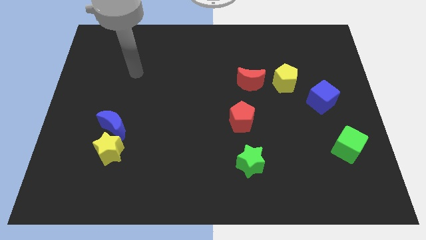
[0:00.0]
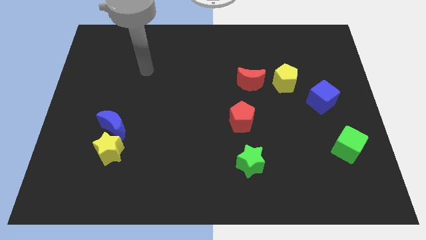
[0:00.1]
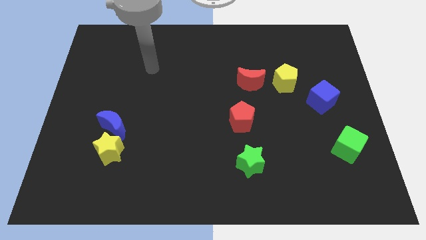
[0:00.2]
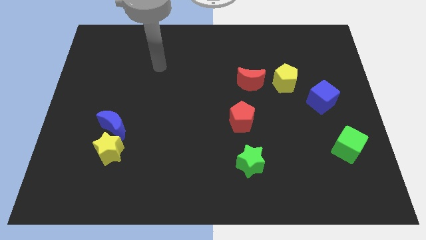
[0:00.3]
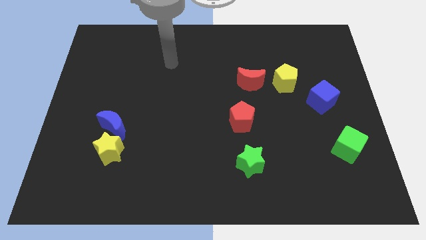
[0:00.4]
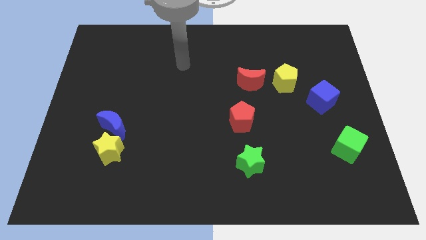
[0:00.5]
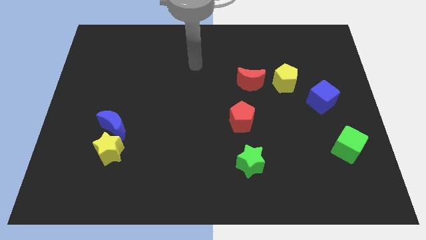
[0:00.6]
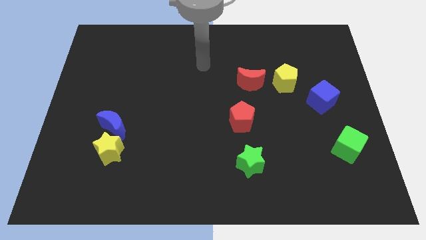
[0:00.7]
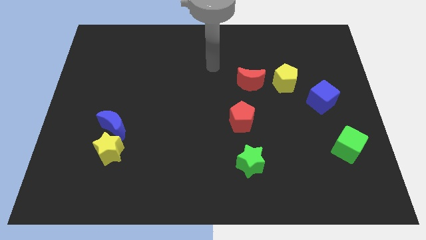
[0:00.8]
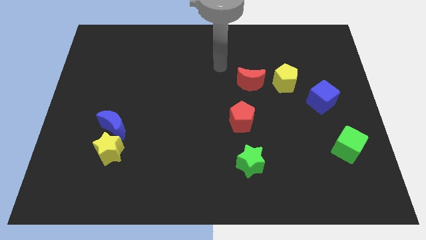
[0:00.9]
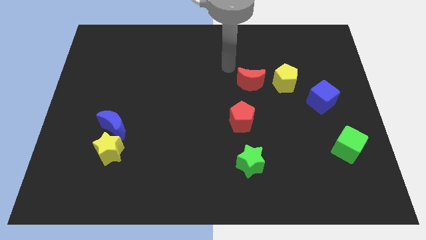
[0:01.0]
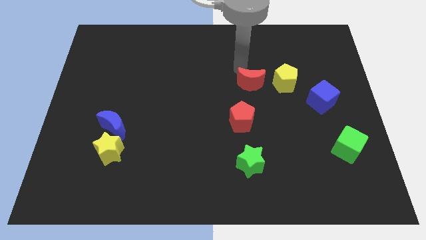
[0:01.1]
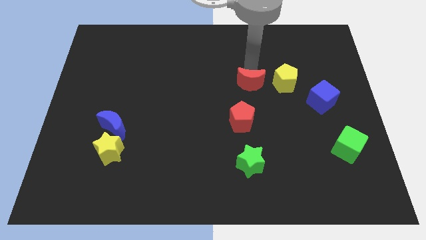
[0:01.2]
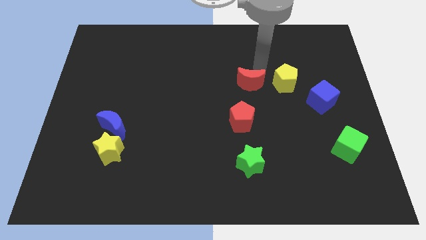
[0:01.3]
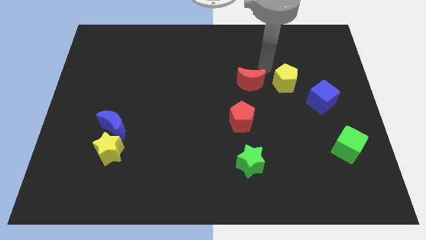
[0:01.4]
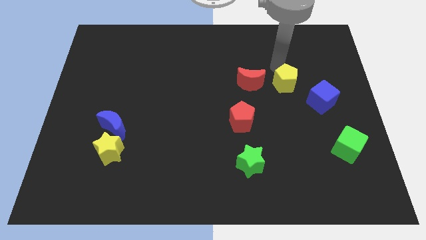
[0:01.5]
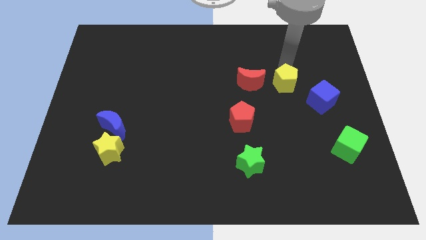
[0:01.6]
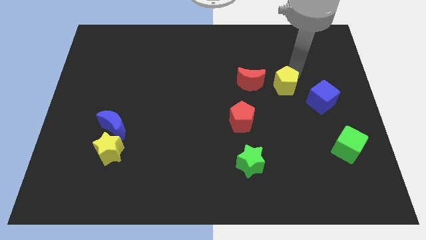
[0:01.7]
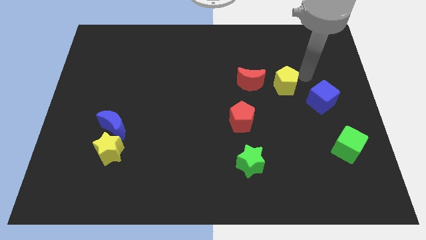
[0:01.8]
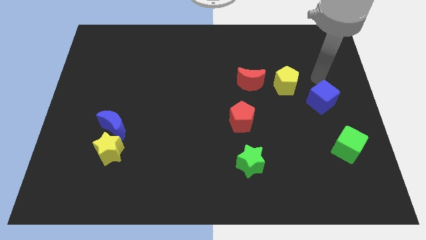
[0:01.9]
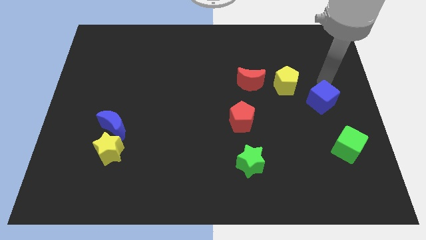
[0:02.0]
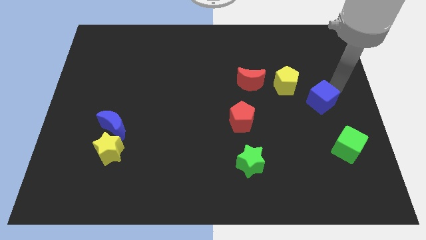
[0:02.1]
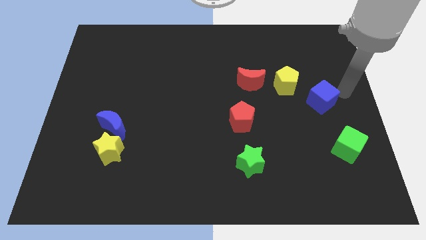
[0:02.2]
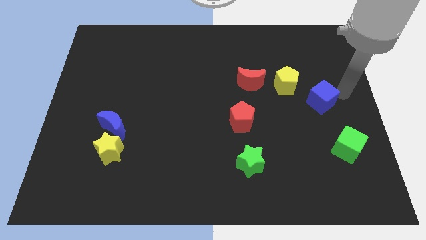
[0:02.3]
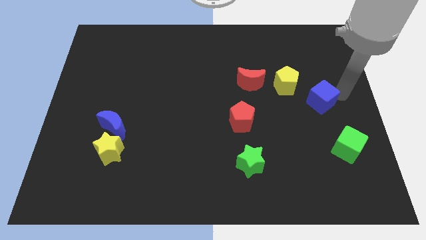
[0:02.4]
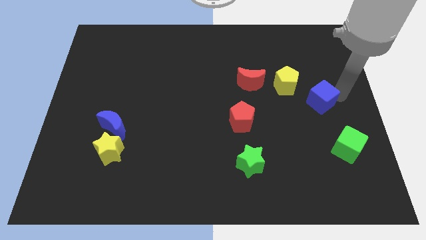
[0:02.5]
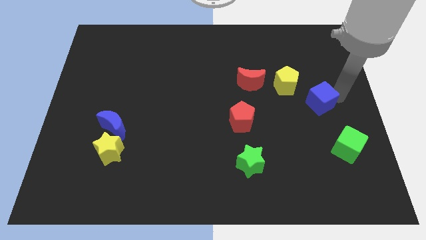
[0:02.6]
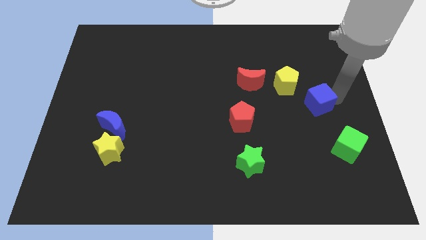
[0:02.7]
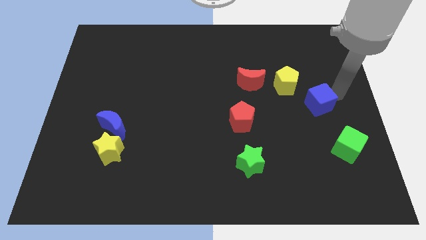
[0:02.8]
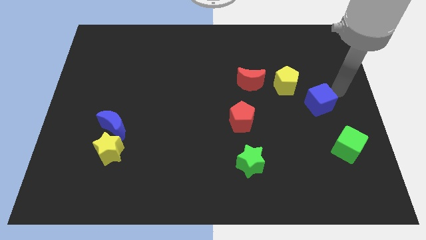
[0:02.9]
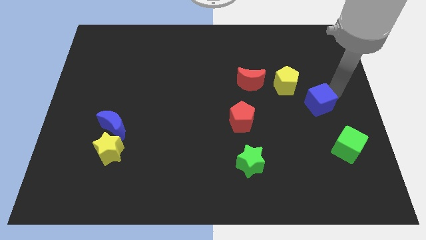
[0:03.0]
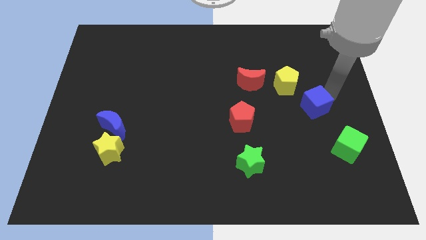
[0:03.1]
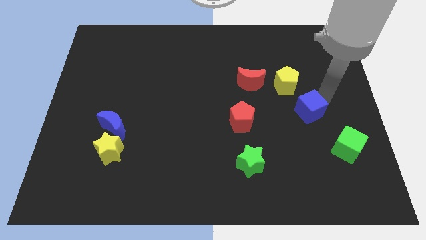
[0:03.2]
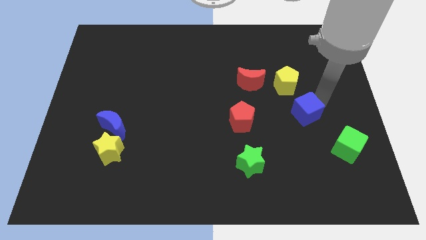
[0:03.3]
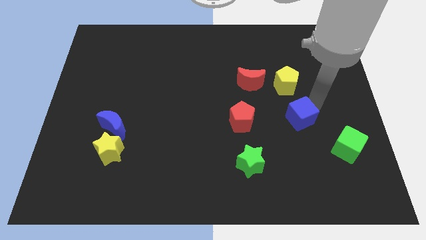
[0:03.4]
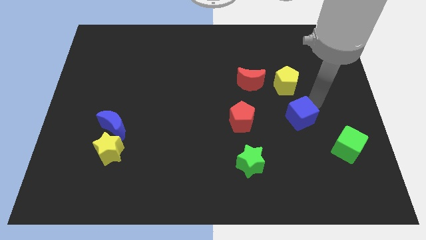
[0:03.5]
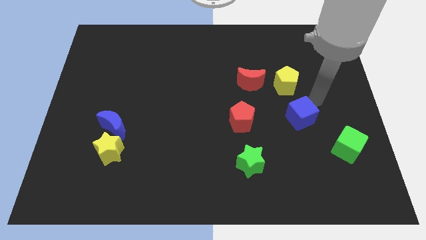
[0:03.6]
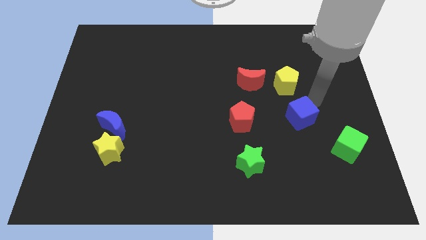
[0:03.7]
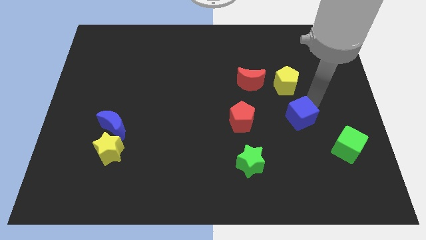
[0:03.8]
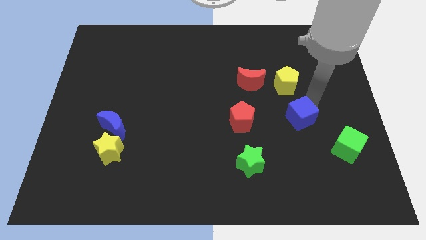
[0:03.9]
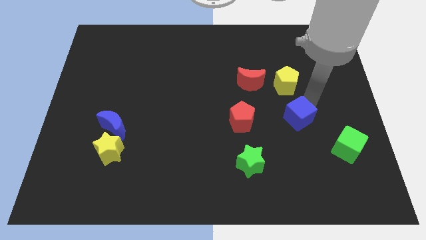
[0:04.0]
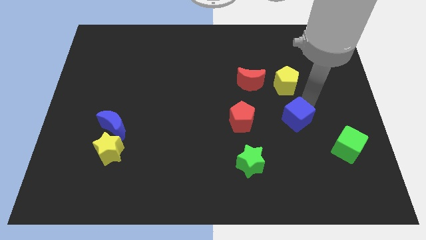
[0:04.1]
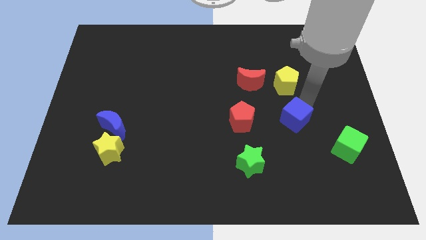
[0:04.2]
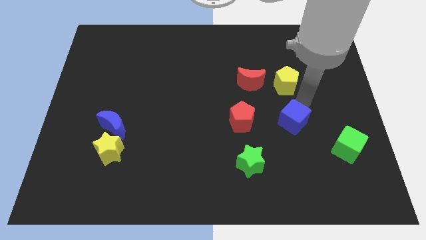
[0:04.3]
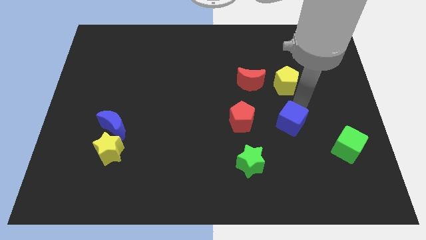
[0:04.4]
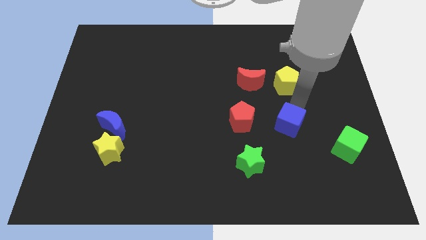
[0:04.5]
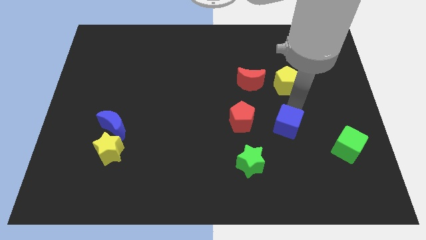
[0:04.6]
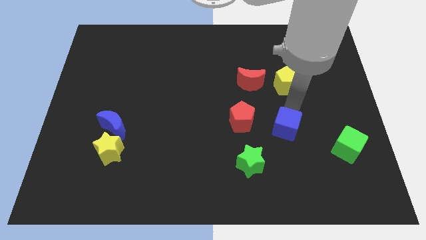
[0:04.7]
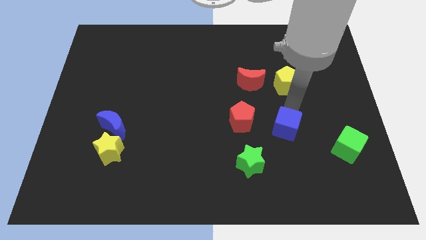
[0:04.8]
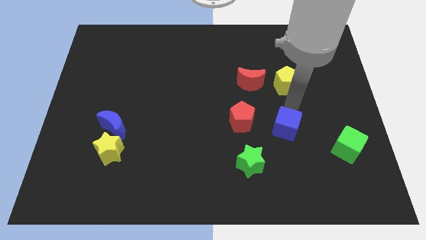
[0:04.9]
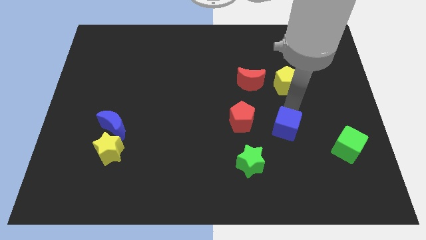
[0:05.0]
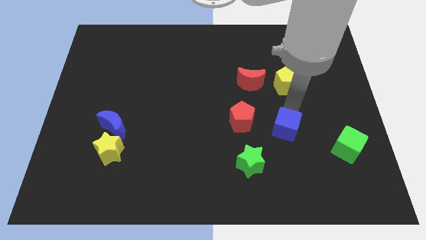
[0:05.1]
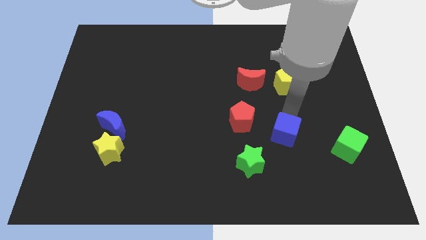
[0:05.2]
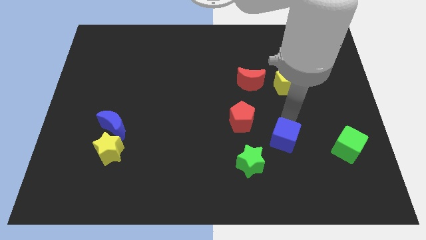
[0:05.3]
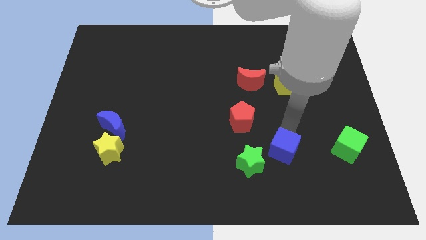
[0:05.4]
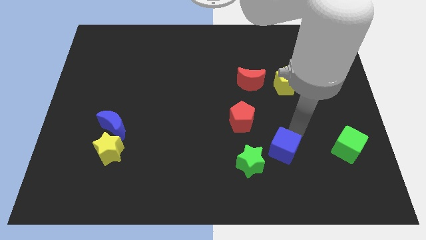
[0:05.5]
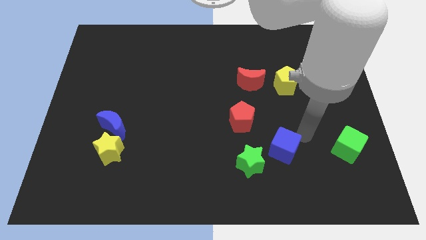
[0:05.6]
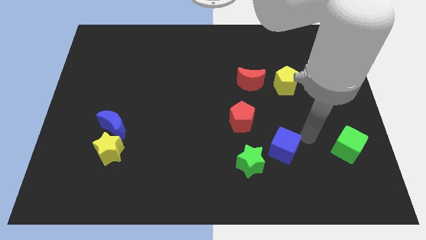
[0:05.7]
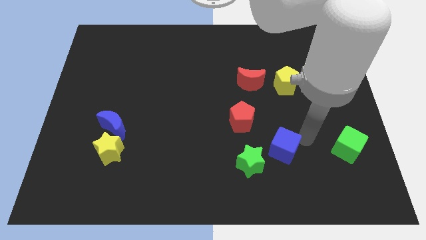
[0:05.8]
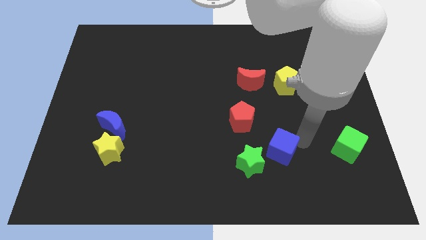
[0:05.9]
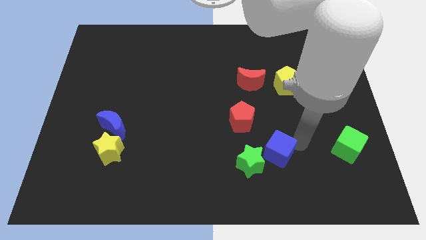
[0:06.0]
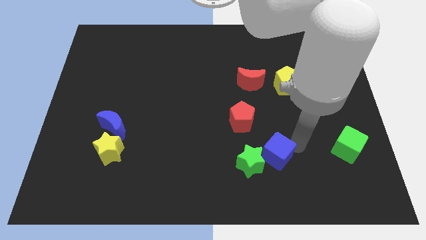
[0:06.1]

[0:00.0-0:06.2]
put the blue cube close to the green star
